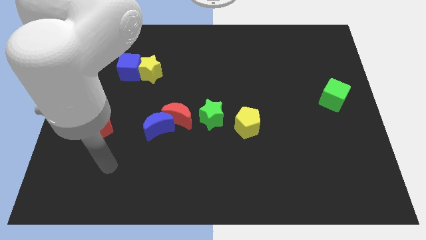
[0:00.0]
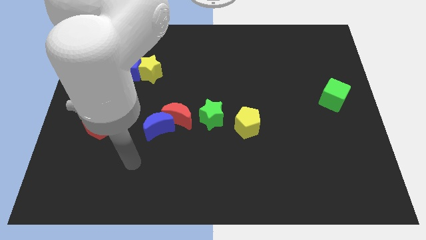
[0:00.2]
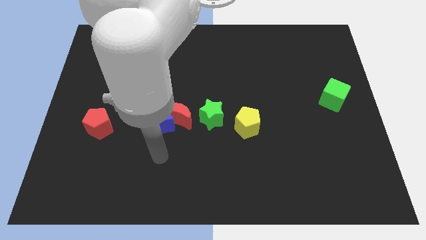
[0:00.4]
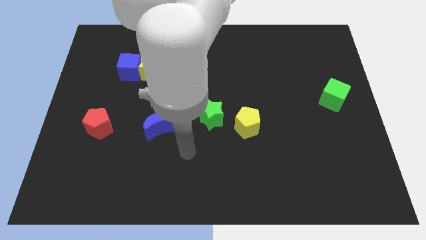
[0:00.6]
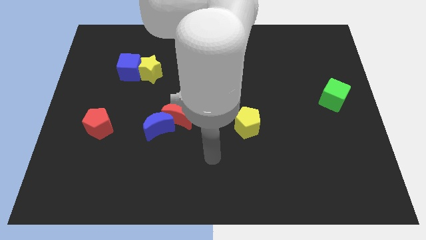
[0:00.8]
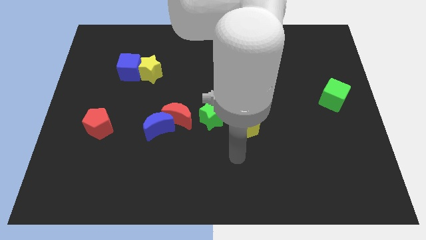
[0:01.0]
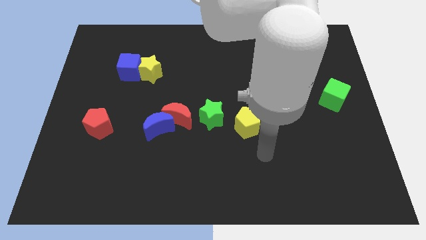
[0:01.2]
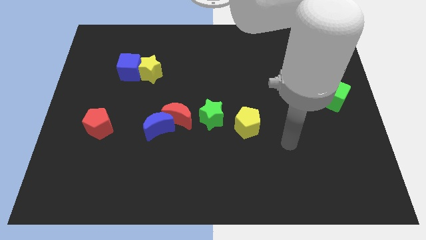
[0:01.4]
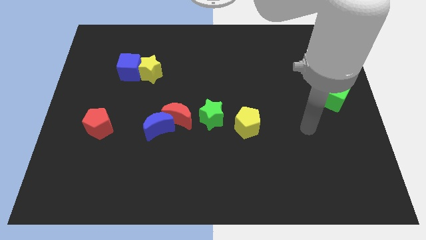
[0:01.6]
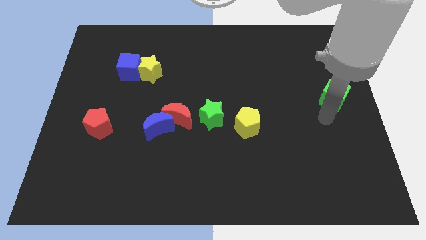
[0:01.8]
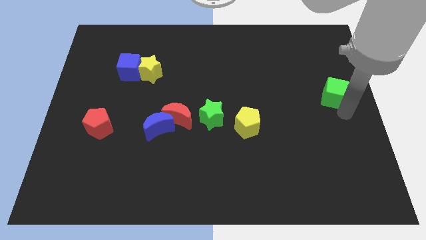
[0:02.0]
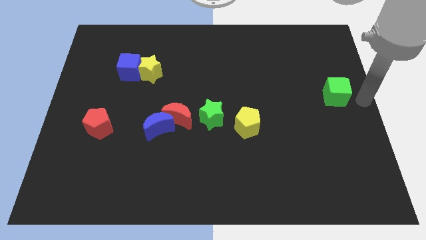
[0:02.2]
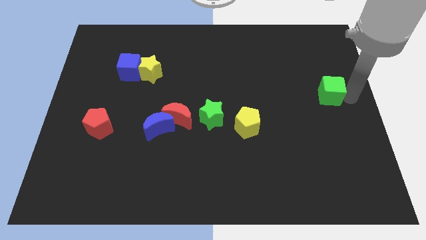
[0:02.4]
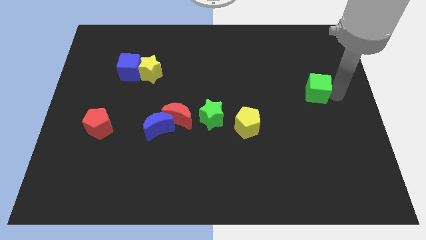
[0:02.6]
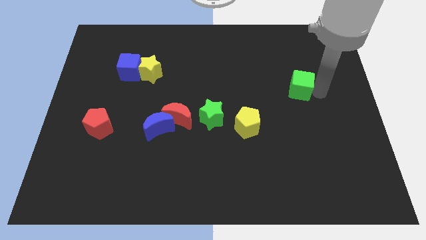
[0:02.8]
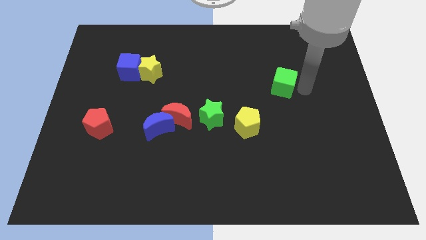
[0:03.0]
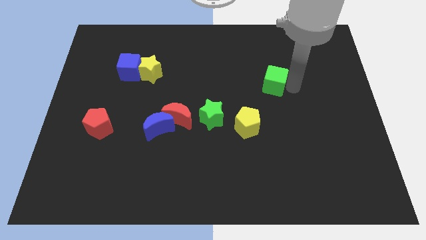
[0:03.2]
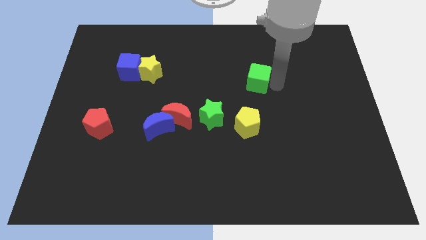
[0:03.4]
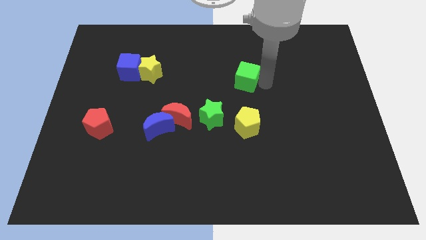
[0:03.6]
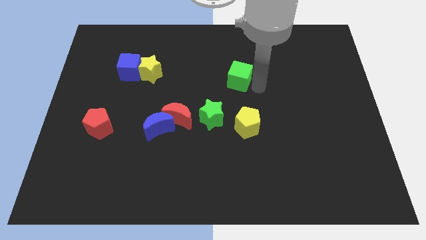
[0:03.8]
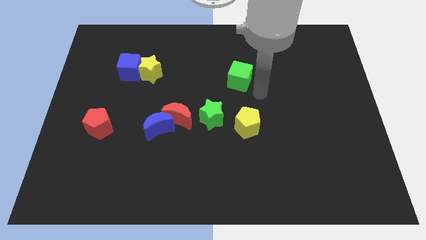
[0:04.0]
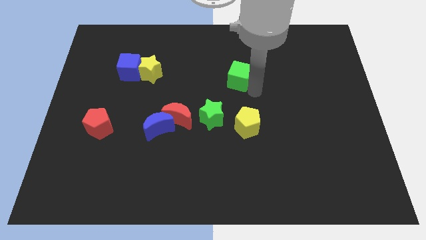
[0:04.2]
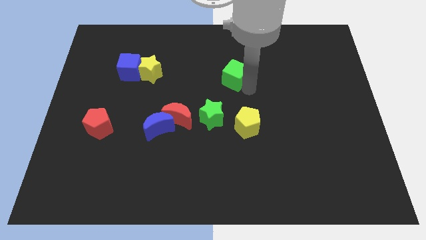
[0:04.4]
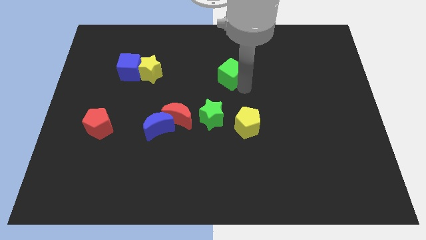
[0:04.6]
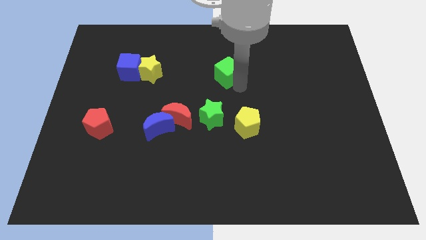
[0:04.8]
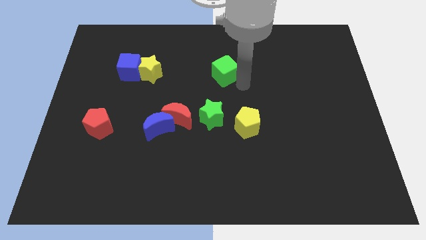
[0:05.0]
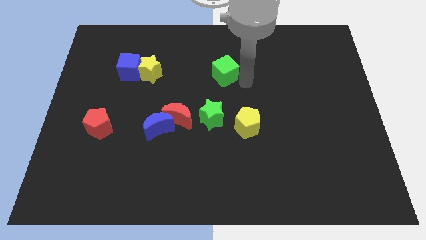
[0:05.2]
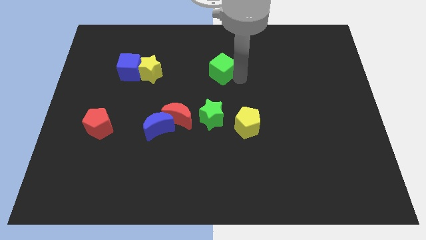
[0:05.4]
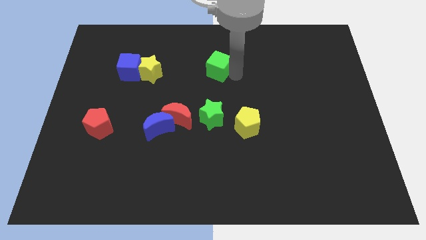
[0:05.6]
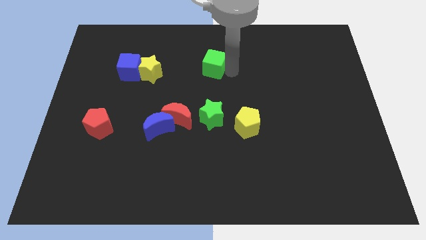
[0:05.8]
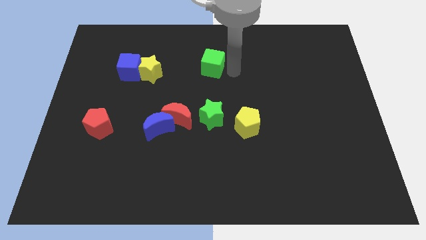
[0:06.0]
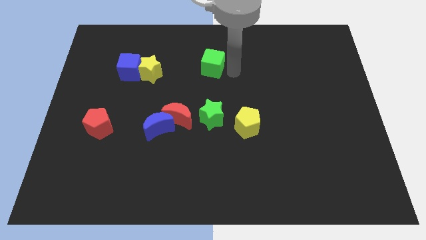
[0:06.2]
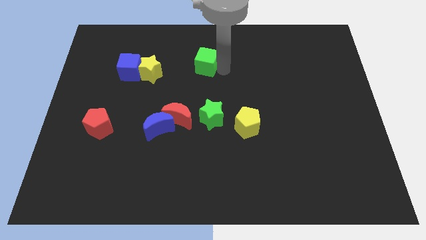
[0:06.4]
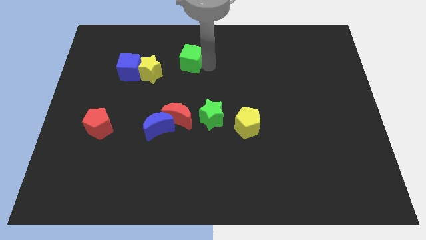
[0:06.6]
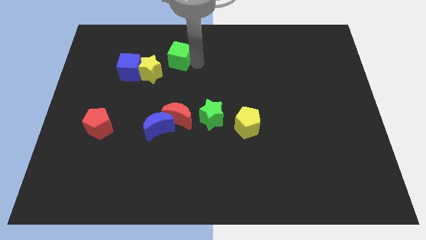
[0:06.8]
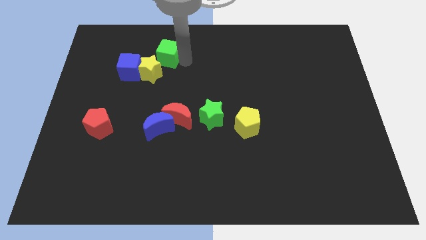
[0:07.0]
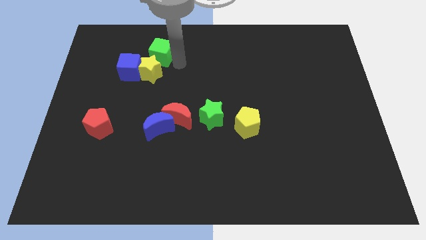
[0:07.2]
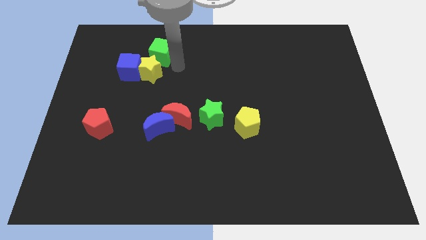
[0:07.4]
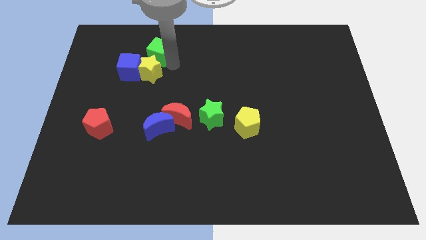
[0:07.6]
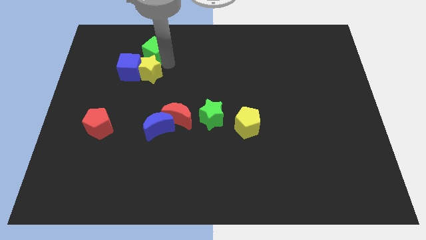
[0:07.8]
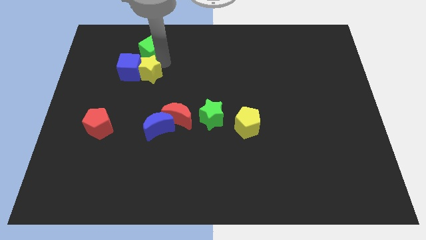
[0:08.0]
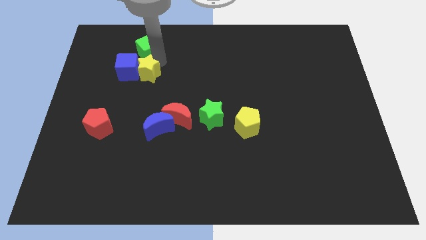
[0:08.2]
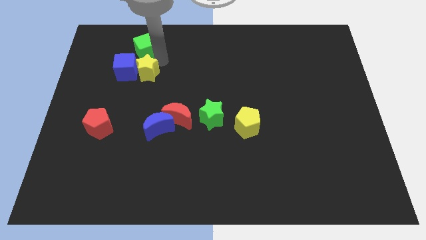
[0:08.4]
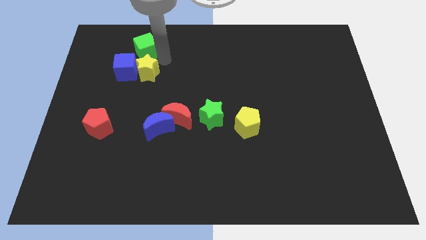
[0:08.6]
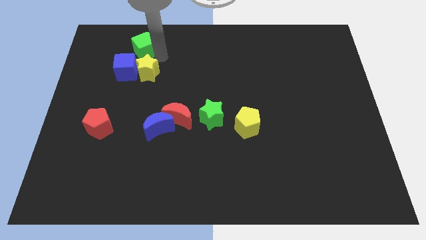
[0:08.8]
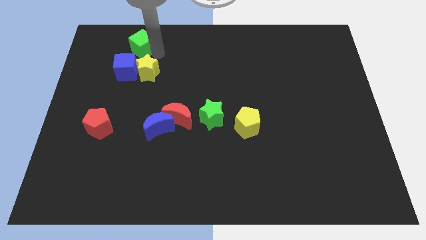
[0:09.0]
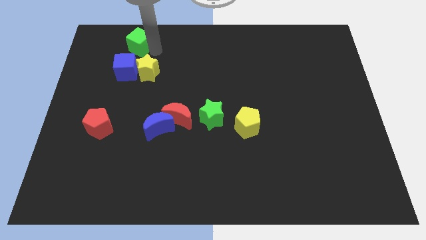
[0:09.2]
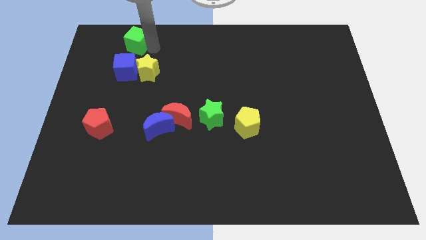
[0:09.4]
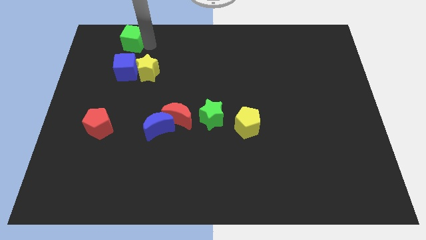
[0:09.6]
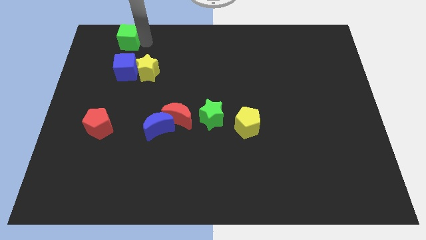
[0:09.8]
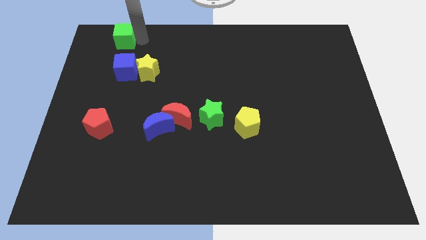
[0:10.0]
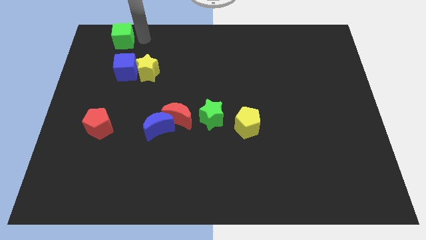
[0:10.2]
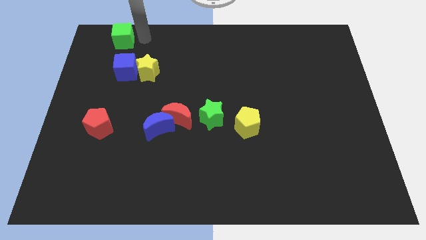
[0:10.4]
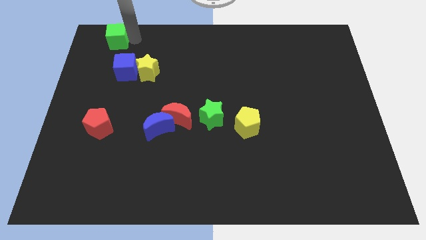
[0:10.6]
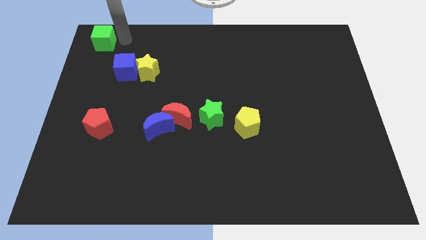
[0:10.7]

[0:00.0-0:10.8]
move the green cube to the top left corner

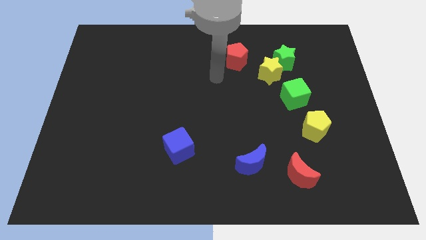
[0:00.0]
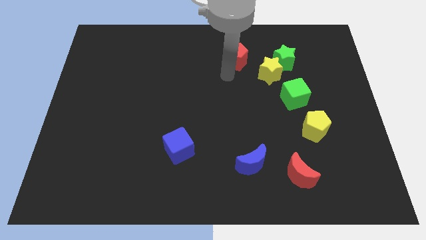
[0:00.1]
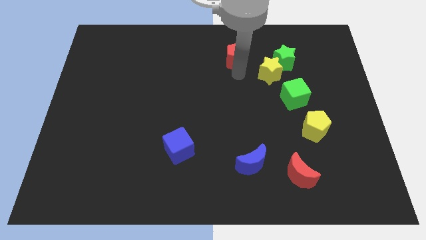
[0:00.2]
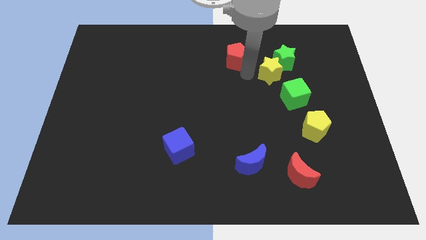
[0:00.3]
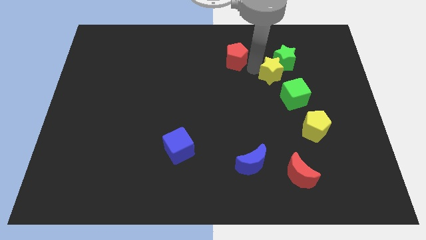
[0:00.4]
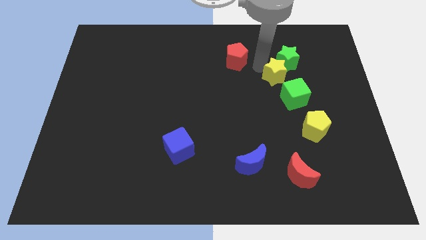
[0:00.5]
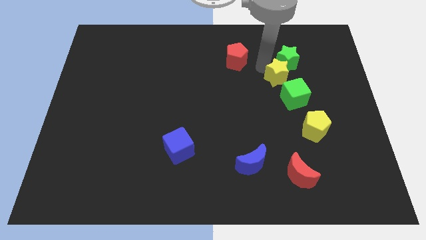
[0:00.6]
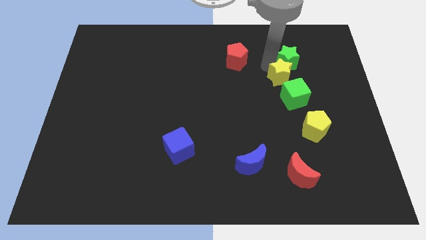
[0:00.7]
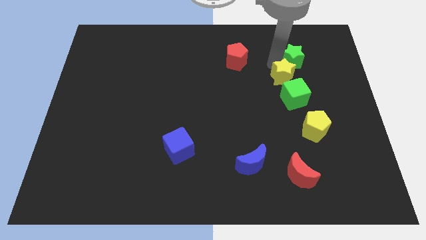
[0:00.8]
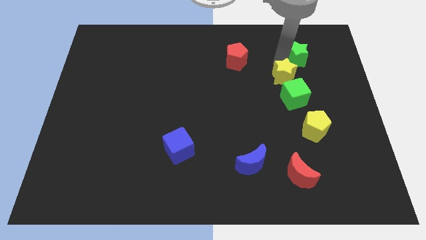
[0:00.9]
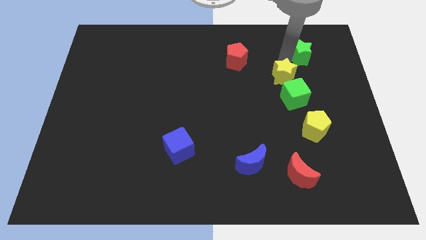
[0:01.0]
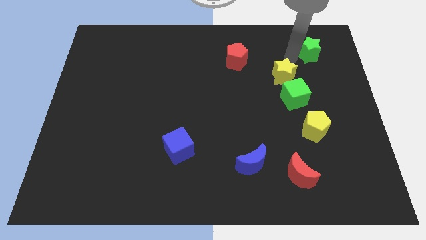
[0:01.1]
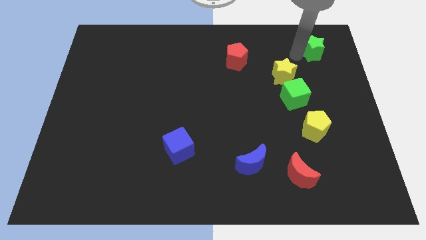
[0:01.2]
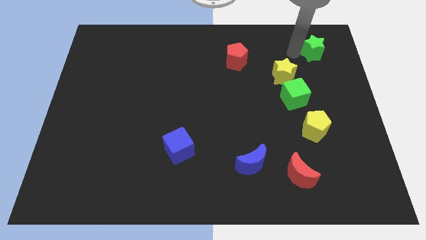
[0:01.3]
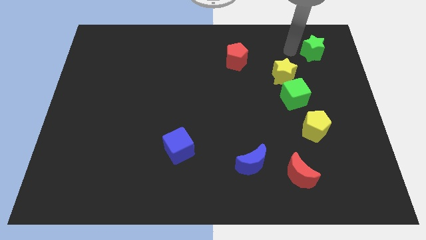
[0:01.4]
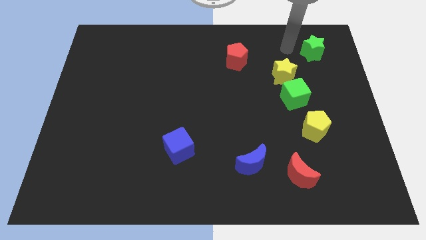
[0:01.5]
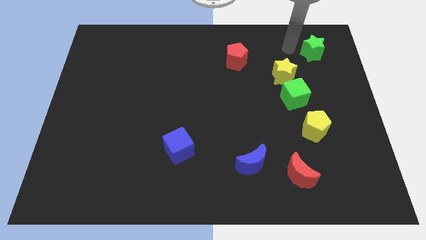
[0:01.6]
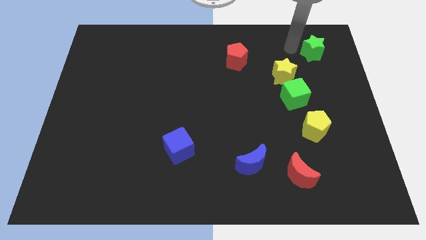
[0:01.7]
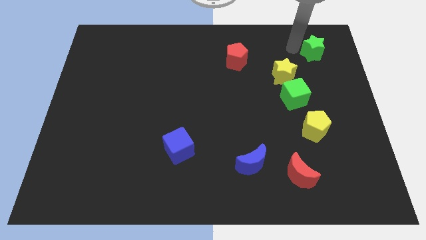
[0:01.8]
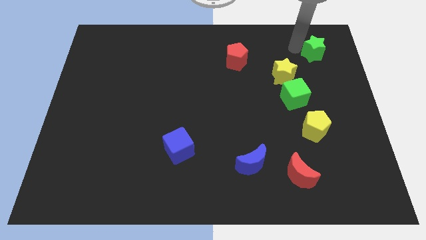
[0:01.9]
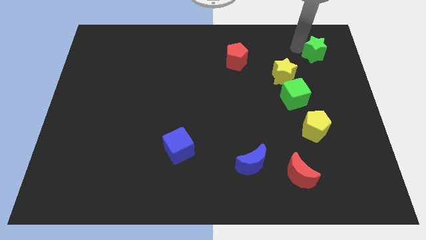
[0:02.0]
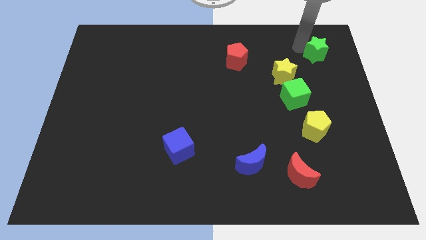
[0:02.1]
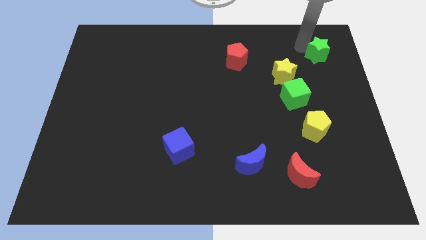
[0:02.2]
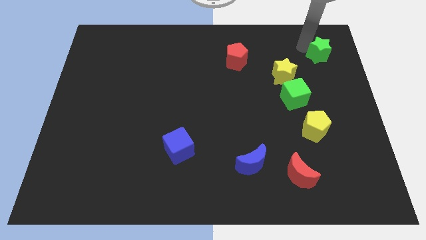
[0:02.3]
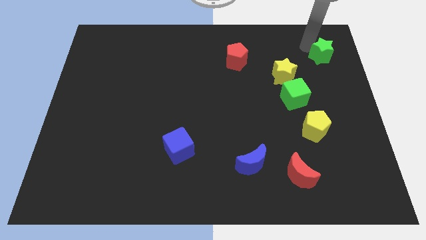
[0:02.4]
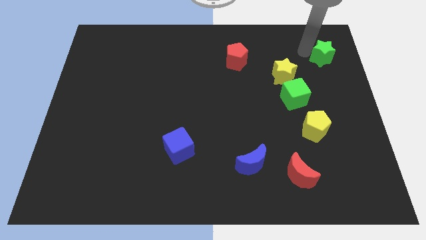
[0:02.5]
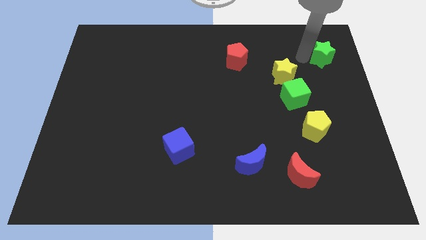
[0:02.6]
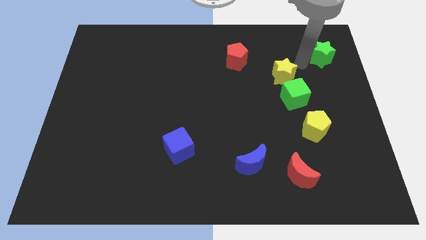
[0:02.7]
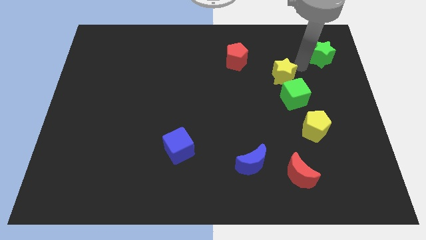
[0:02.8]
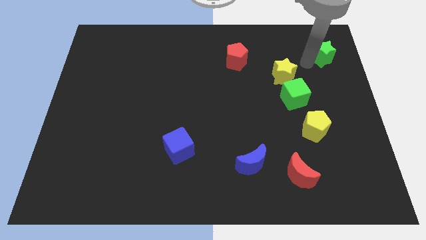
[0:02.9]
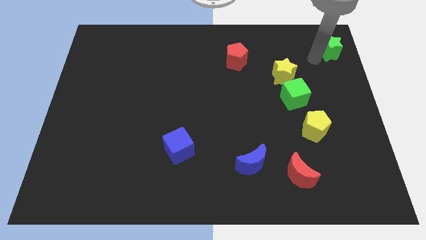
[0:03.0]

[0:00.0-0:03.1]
slide the green star to the top right of the board
